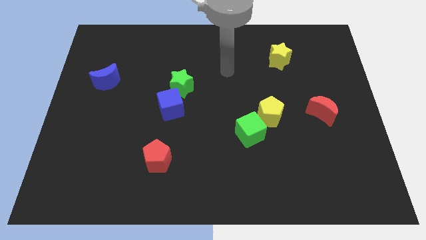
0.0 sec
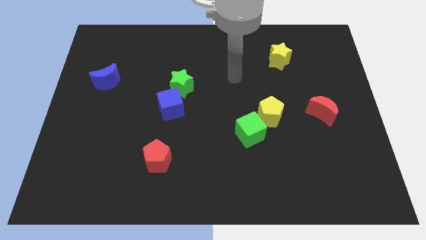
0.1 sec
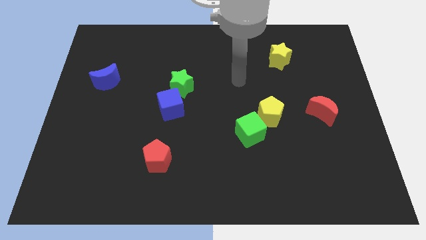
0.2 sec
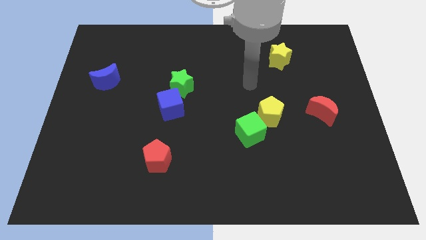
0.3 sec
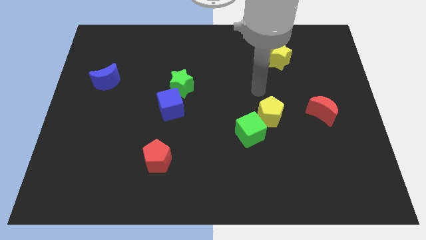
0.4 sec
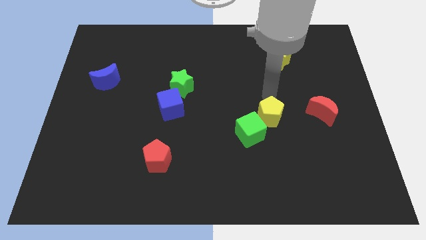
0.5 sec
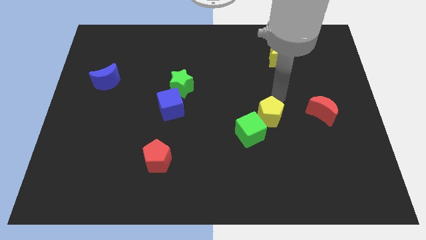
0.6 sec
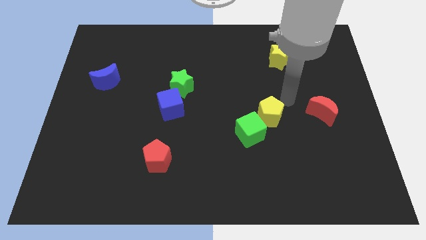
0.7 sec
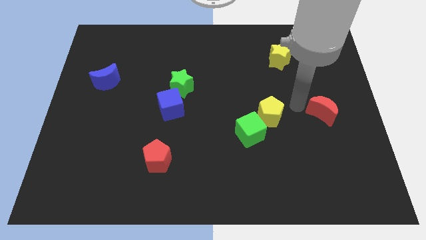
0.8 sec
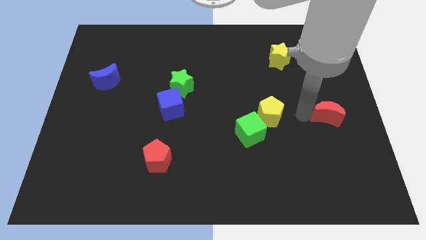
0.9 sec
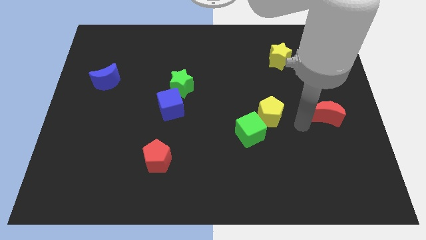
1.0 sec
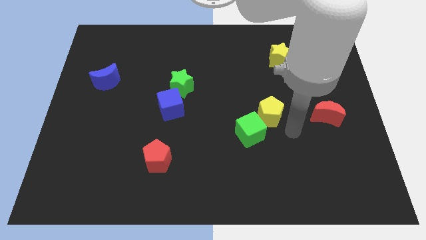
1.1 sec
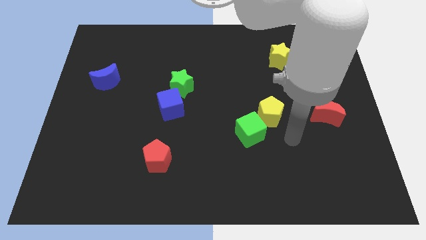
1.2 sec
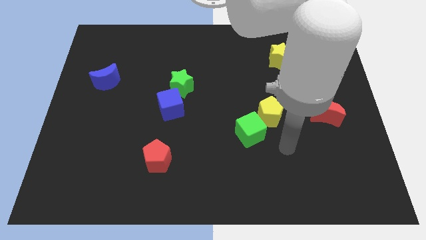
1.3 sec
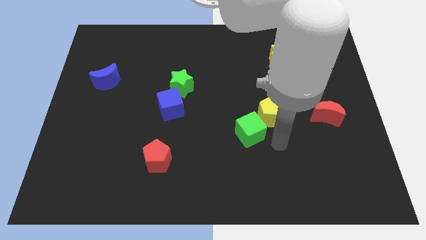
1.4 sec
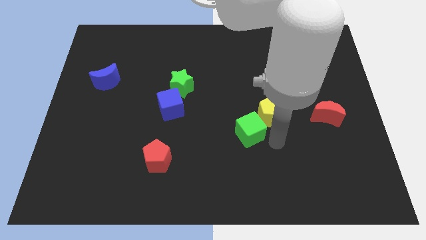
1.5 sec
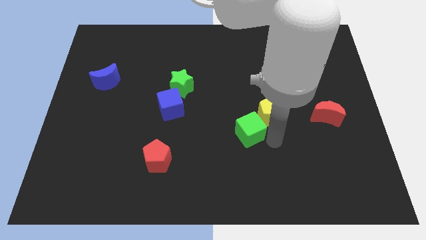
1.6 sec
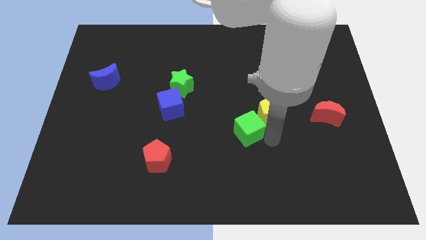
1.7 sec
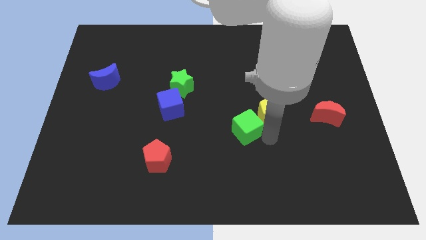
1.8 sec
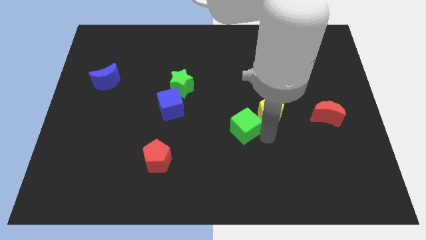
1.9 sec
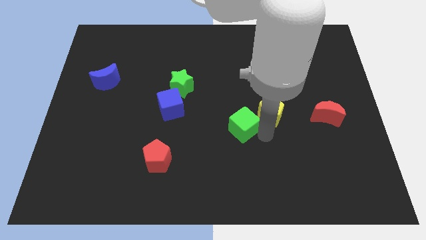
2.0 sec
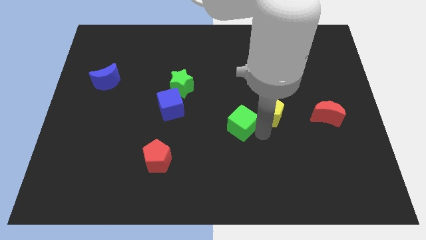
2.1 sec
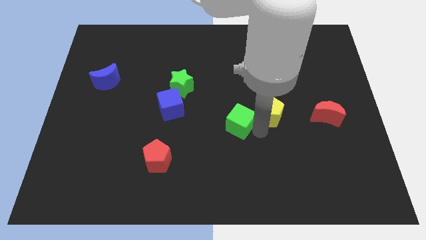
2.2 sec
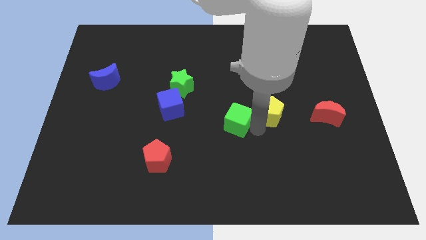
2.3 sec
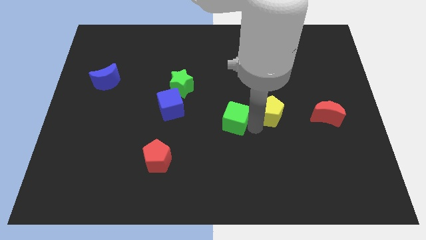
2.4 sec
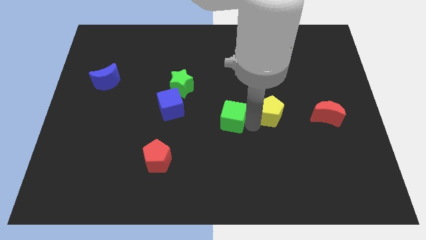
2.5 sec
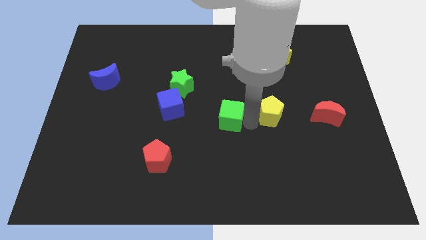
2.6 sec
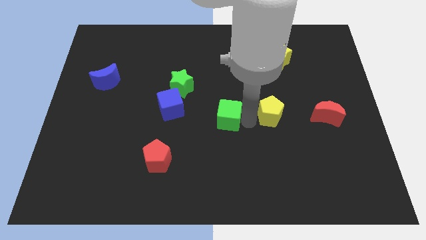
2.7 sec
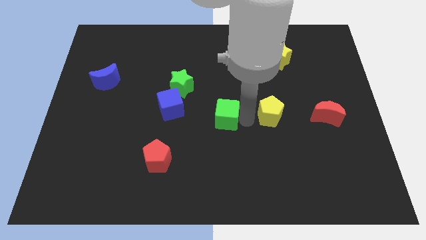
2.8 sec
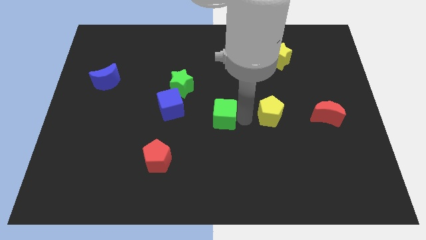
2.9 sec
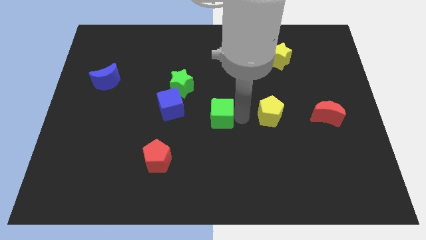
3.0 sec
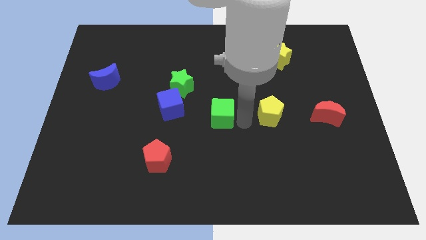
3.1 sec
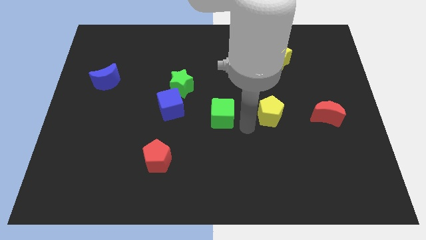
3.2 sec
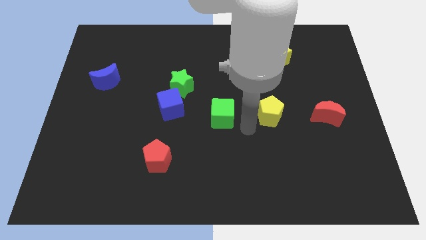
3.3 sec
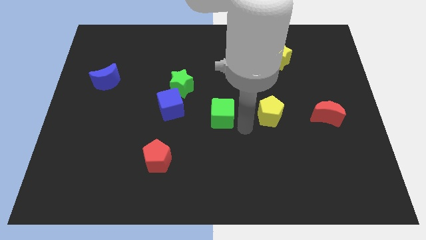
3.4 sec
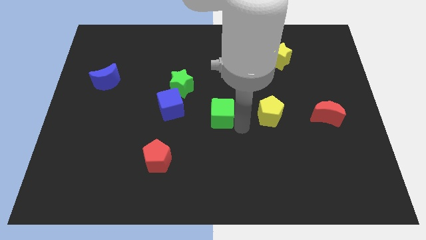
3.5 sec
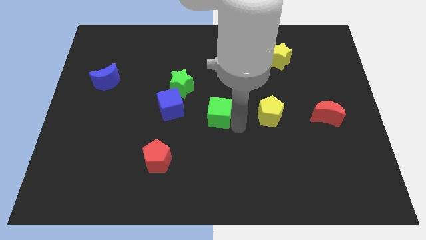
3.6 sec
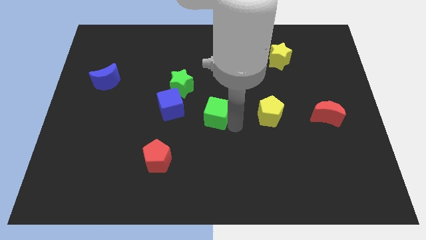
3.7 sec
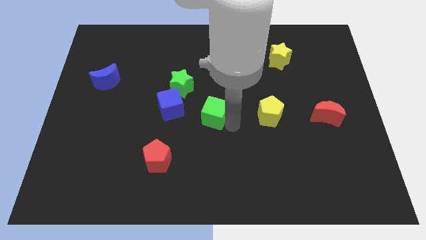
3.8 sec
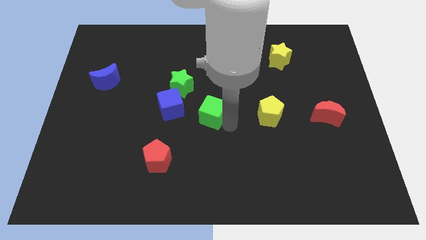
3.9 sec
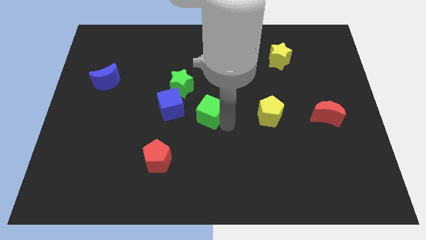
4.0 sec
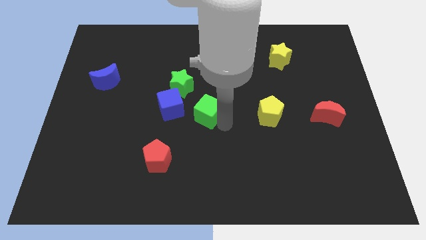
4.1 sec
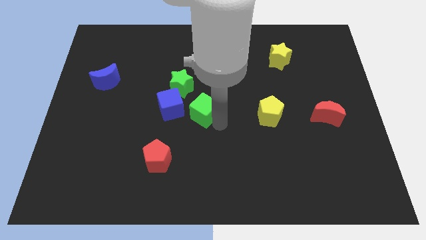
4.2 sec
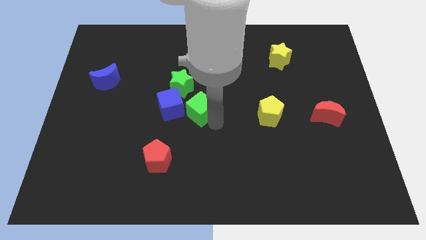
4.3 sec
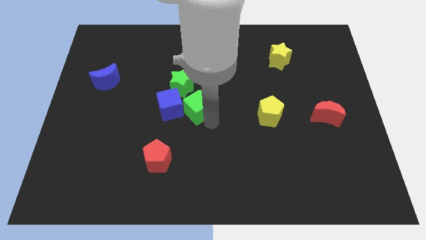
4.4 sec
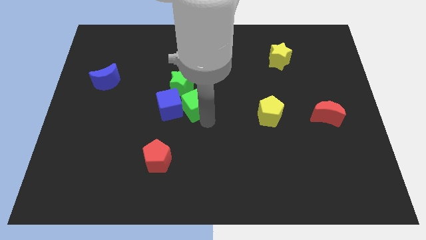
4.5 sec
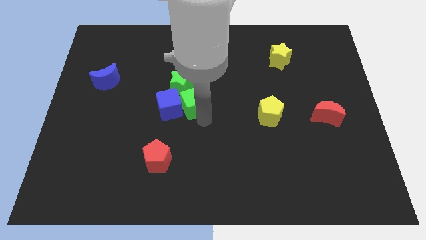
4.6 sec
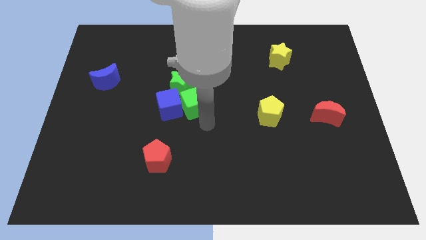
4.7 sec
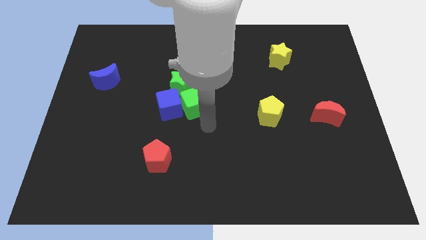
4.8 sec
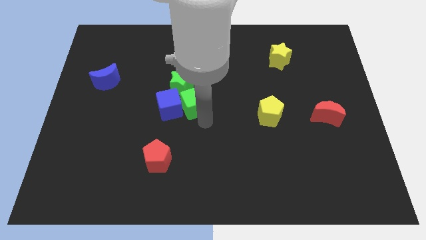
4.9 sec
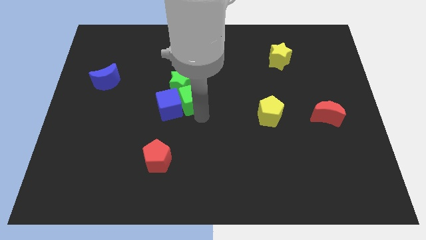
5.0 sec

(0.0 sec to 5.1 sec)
move the green cube to the green star

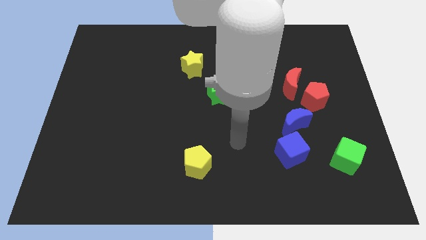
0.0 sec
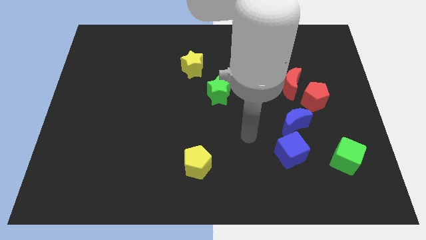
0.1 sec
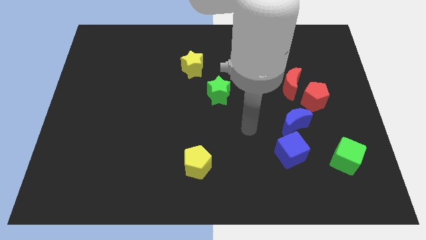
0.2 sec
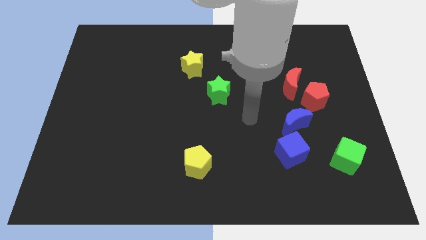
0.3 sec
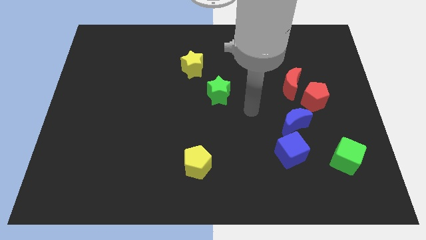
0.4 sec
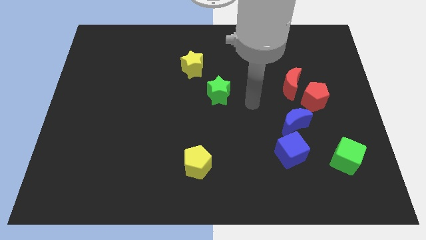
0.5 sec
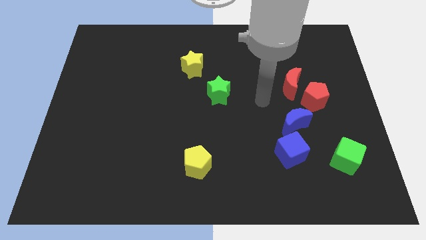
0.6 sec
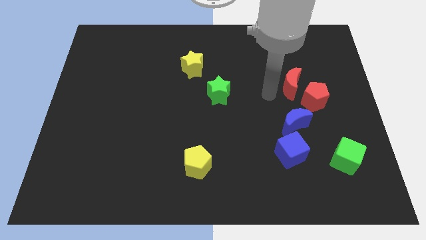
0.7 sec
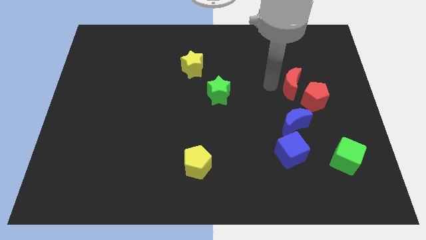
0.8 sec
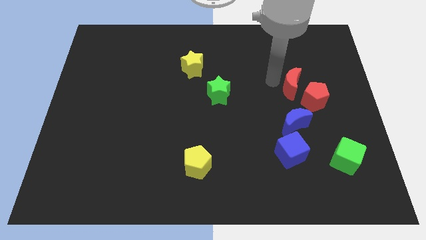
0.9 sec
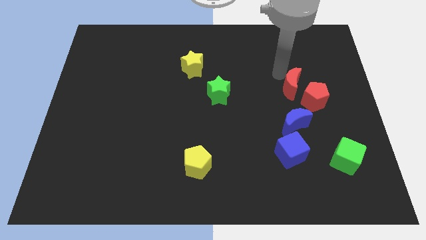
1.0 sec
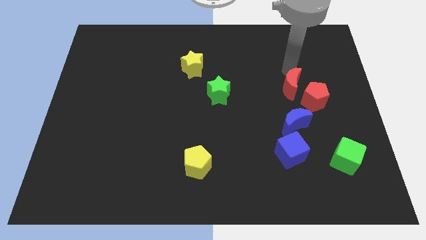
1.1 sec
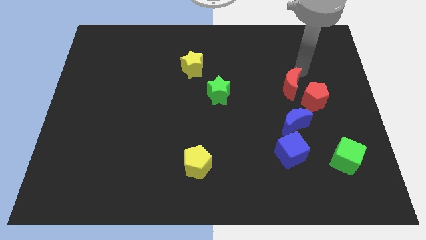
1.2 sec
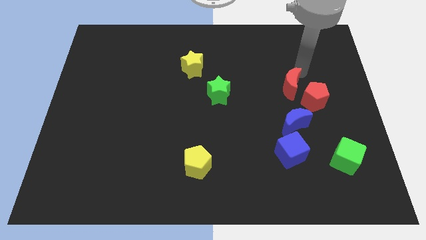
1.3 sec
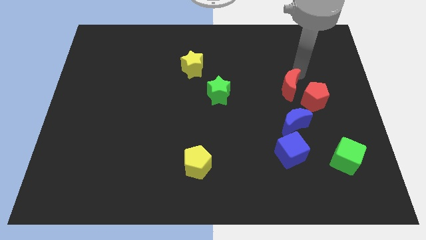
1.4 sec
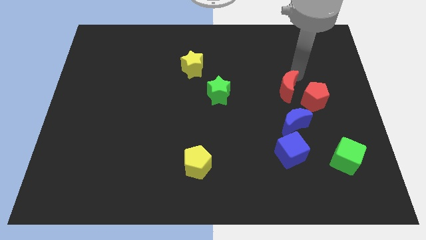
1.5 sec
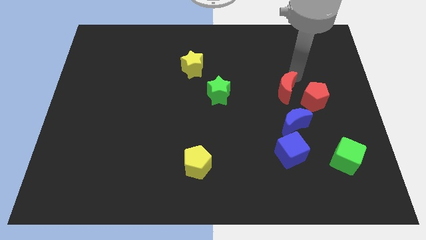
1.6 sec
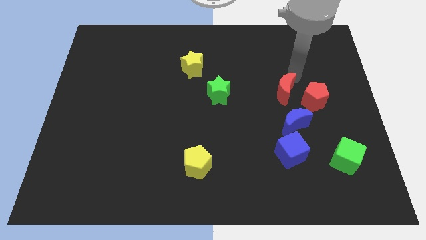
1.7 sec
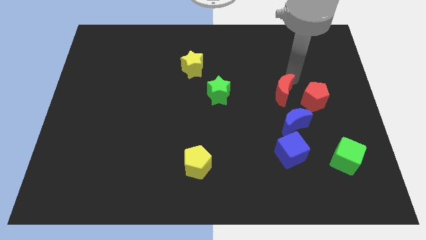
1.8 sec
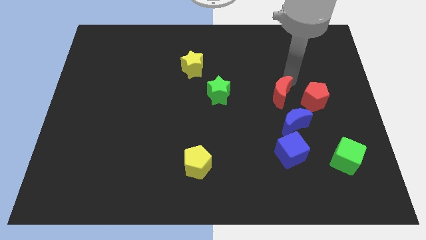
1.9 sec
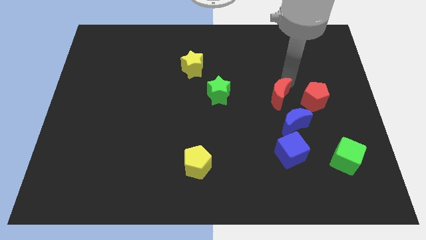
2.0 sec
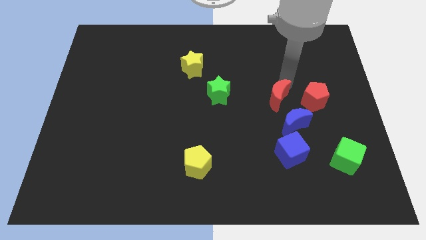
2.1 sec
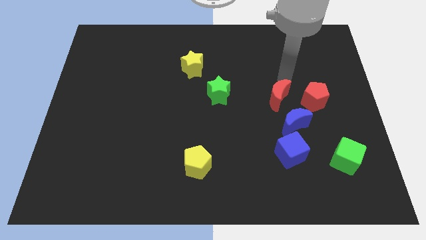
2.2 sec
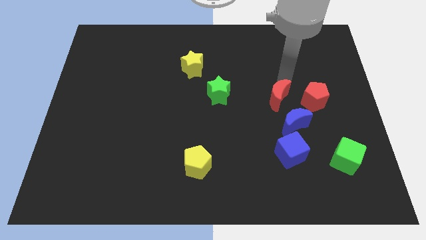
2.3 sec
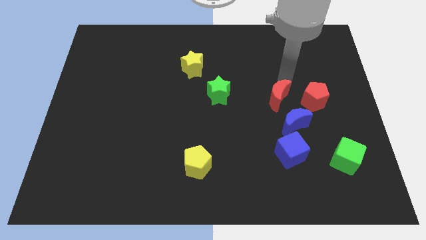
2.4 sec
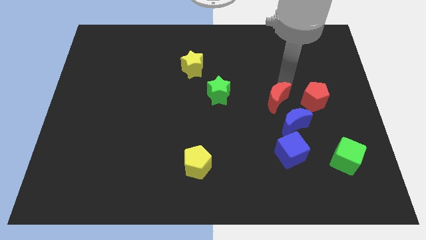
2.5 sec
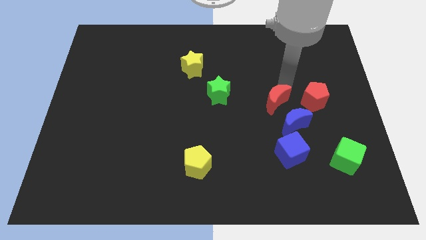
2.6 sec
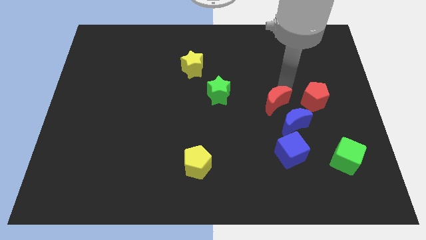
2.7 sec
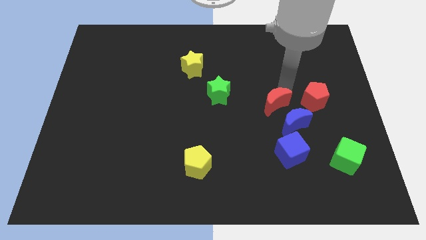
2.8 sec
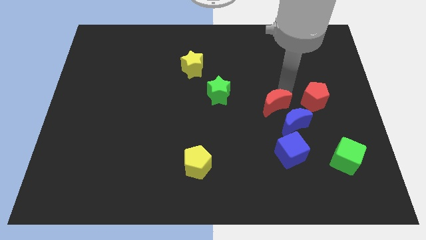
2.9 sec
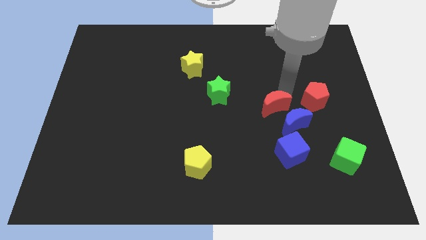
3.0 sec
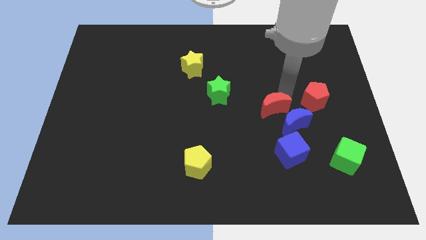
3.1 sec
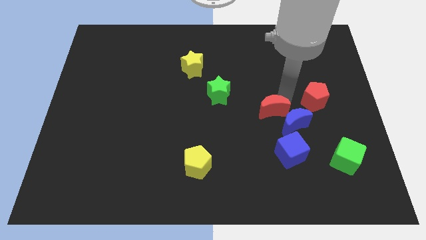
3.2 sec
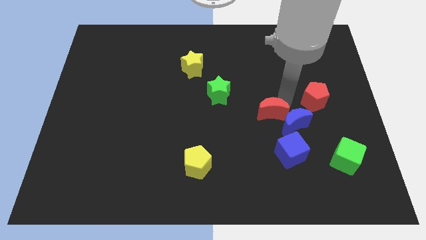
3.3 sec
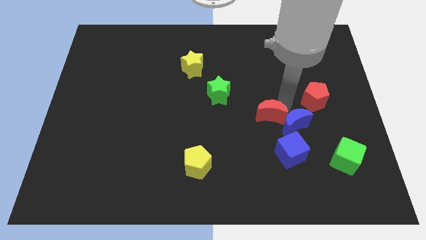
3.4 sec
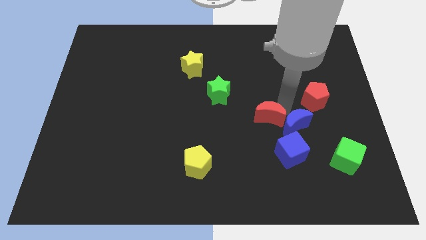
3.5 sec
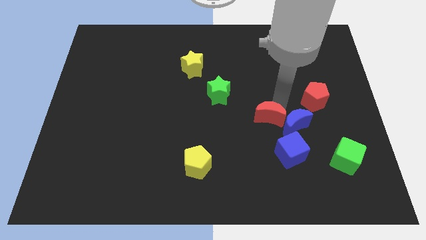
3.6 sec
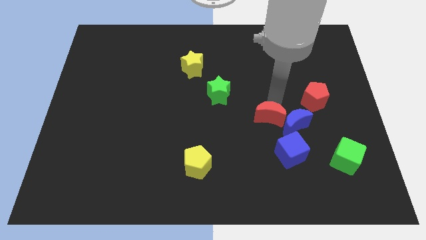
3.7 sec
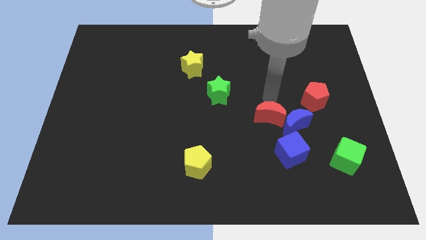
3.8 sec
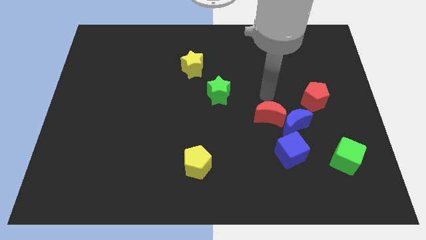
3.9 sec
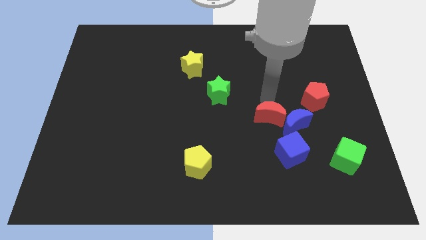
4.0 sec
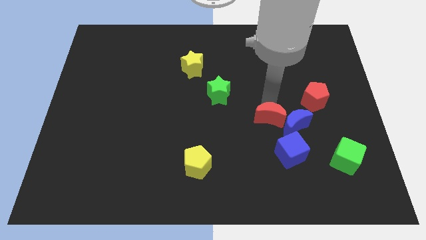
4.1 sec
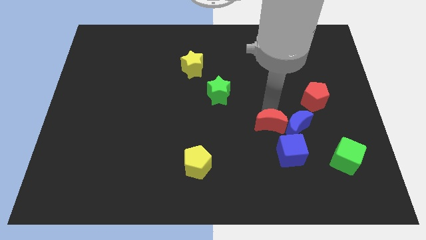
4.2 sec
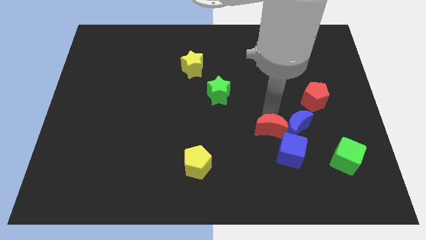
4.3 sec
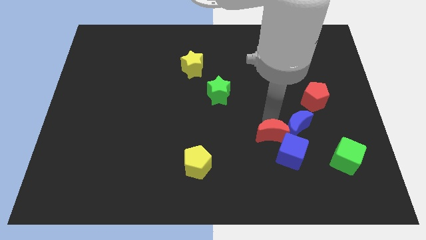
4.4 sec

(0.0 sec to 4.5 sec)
push the red moon close to the blue cube
